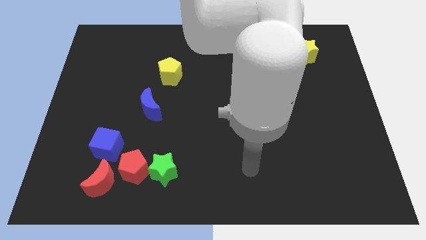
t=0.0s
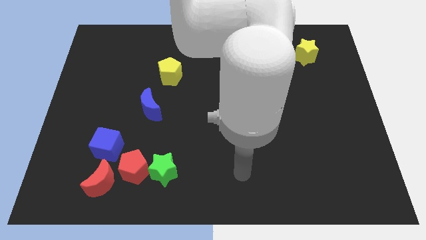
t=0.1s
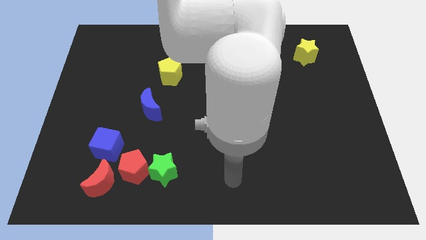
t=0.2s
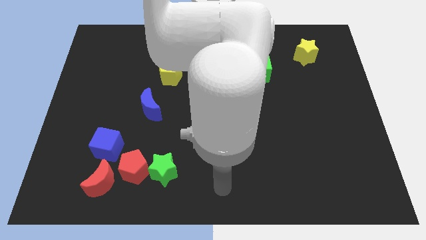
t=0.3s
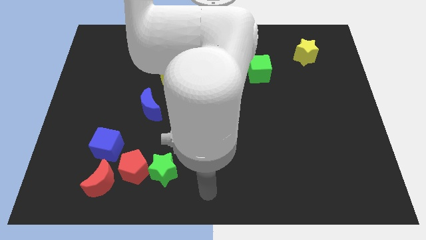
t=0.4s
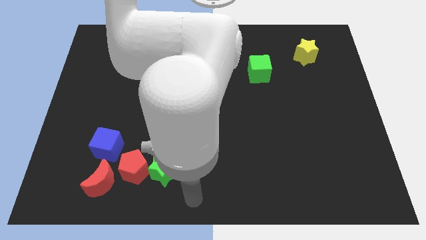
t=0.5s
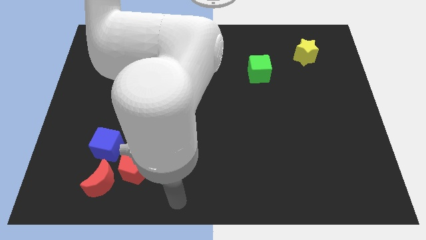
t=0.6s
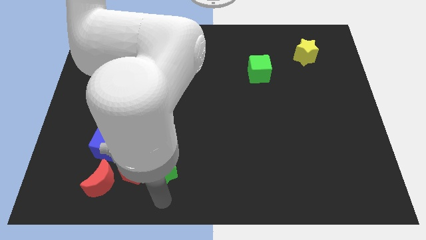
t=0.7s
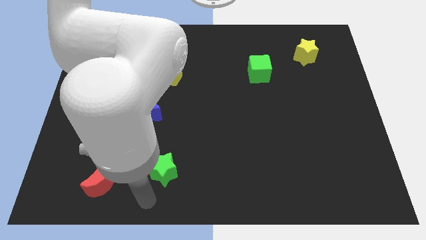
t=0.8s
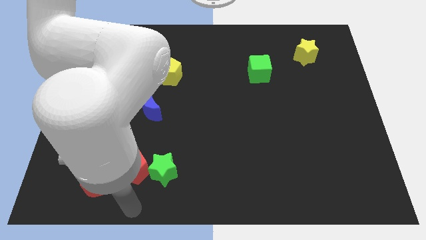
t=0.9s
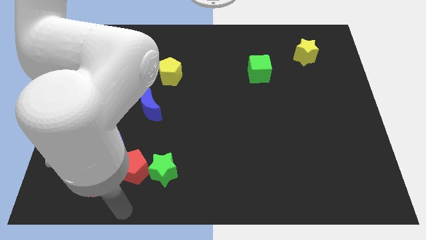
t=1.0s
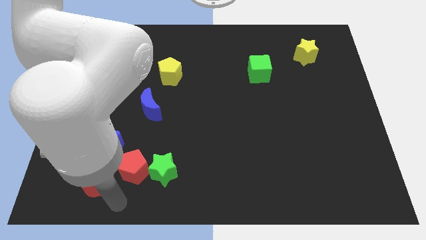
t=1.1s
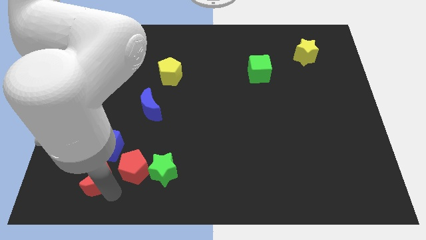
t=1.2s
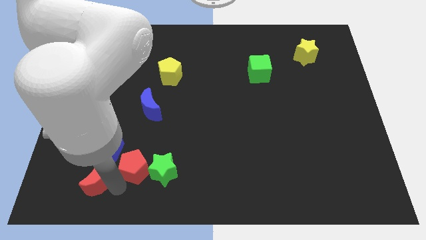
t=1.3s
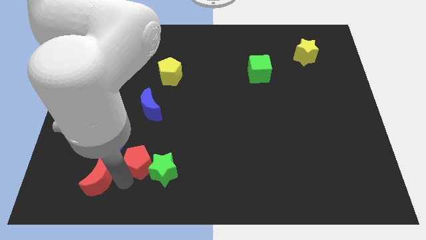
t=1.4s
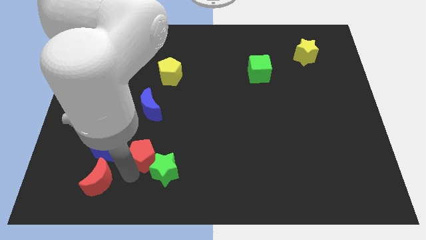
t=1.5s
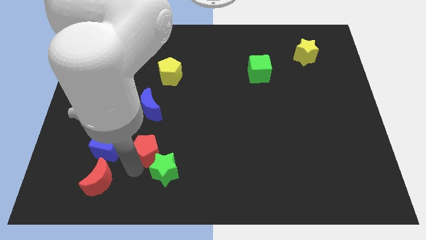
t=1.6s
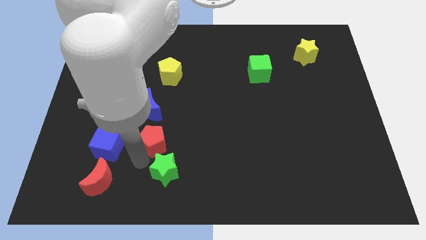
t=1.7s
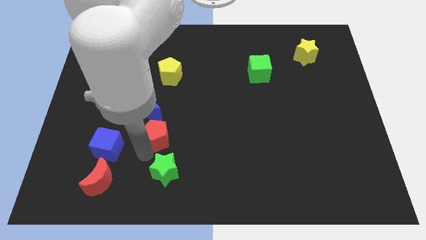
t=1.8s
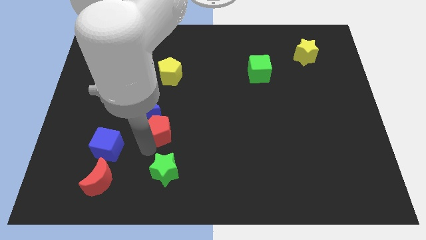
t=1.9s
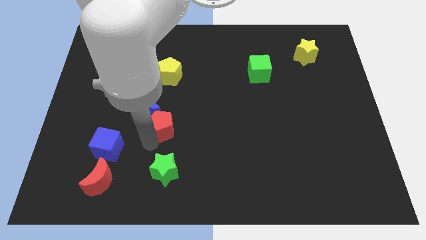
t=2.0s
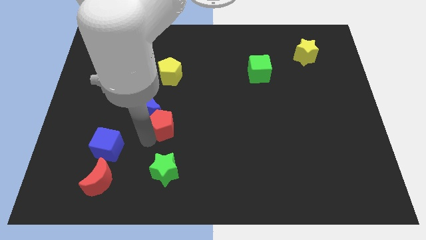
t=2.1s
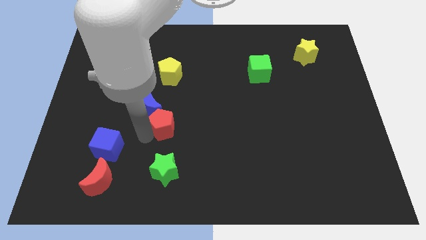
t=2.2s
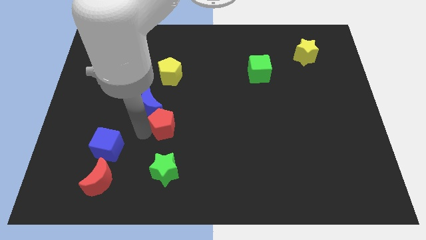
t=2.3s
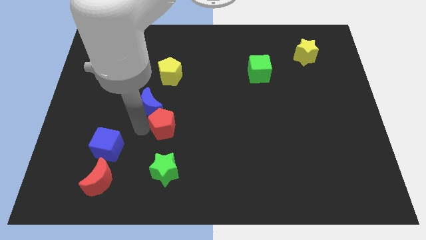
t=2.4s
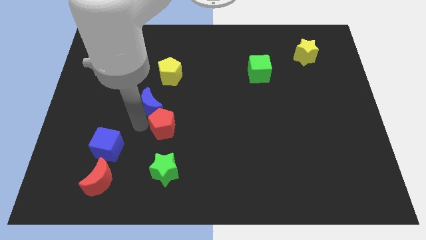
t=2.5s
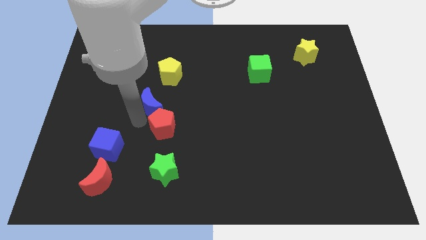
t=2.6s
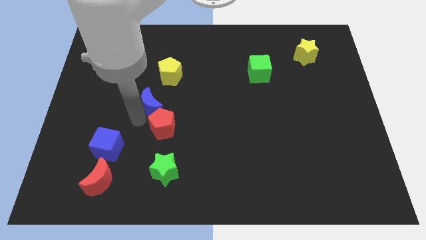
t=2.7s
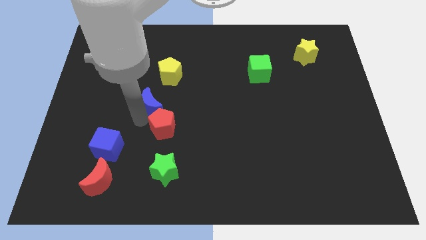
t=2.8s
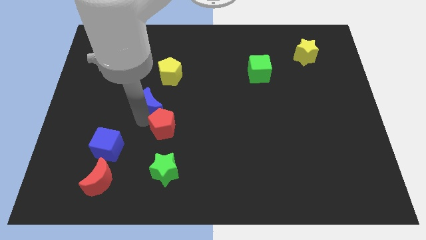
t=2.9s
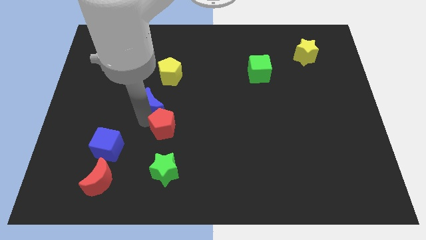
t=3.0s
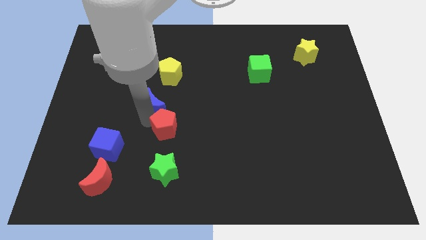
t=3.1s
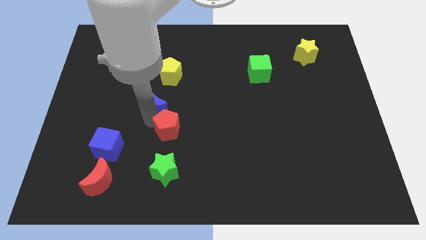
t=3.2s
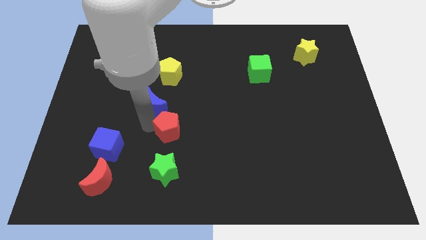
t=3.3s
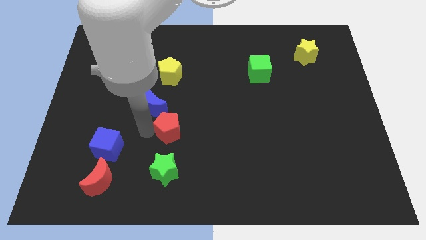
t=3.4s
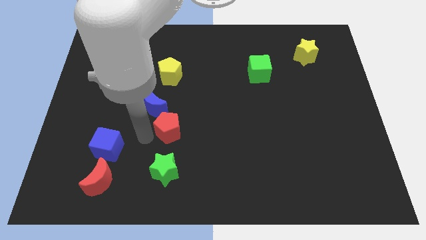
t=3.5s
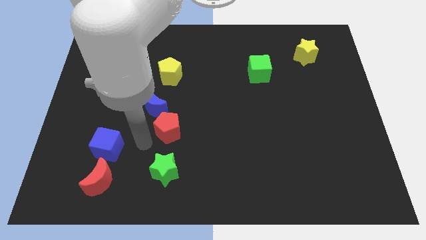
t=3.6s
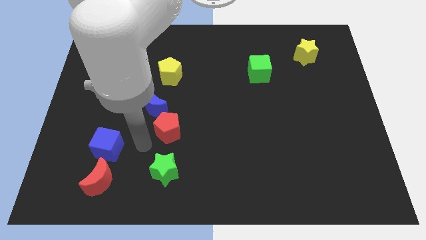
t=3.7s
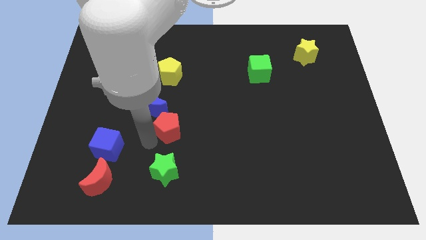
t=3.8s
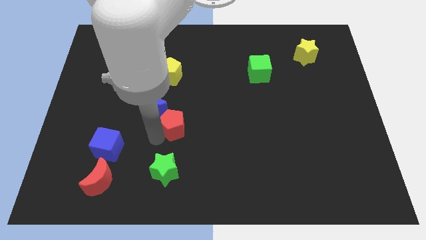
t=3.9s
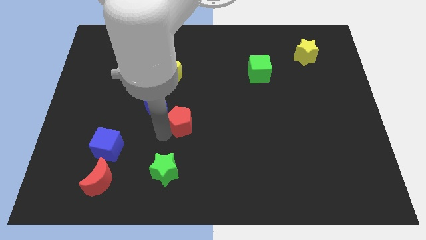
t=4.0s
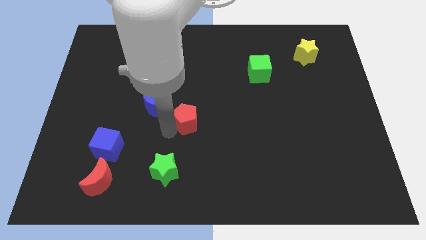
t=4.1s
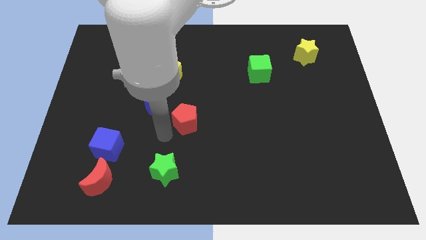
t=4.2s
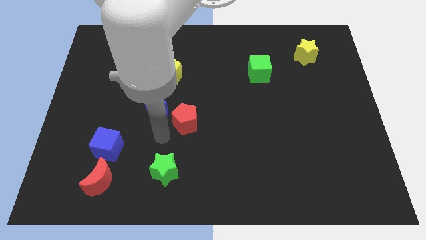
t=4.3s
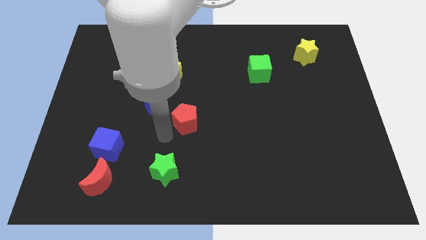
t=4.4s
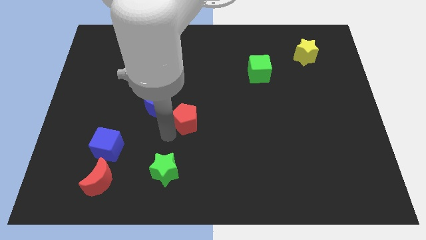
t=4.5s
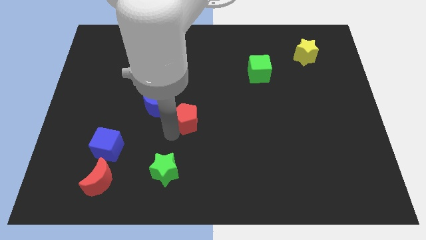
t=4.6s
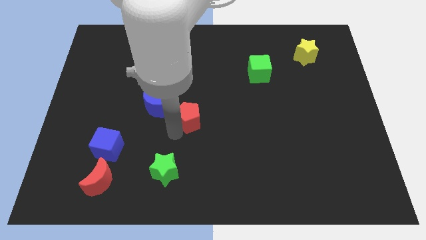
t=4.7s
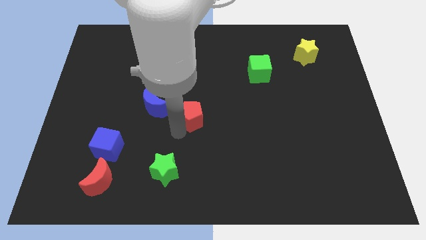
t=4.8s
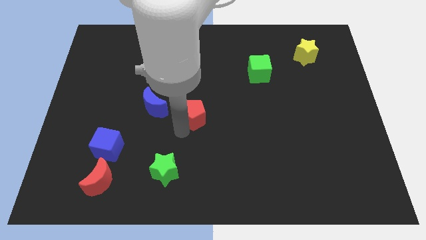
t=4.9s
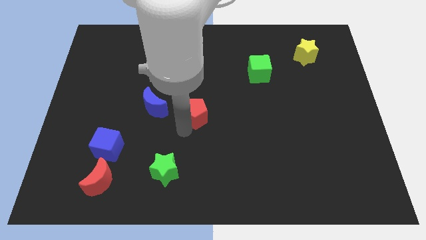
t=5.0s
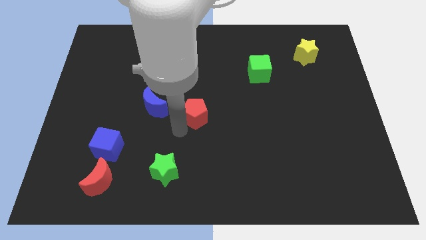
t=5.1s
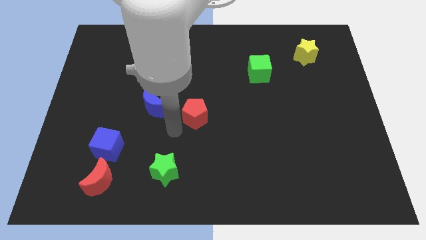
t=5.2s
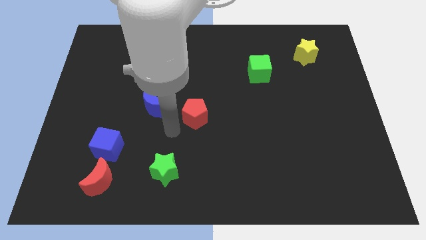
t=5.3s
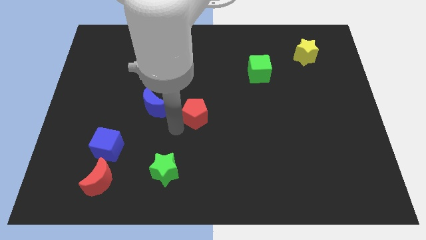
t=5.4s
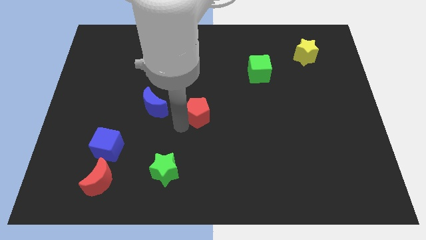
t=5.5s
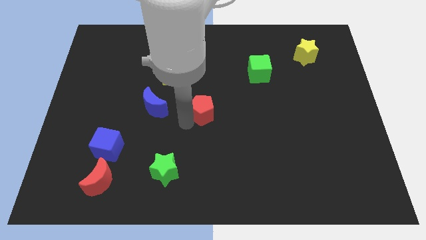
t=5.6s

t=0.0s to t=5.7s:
move the red pentagon upwards and to the right

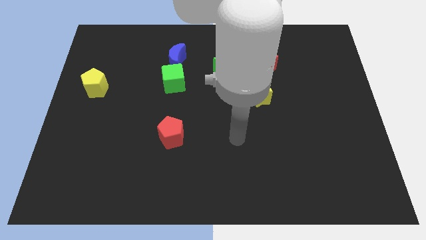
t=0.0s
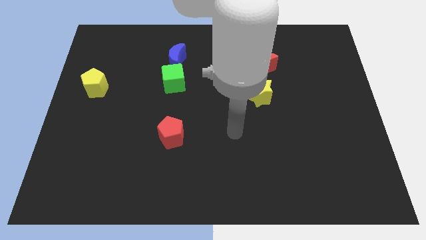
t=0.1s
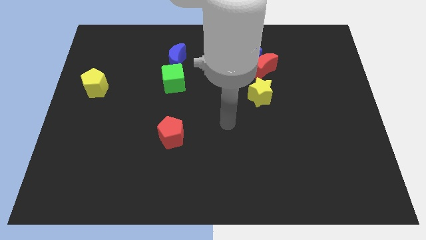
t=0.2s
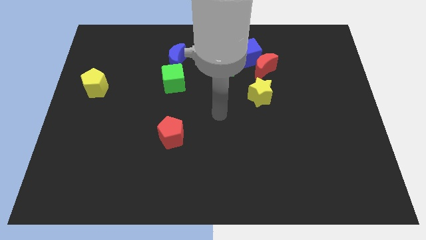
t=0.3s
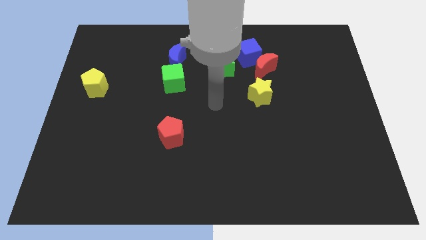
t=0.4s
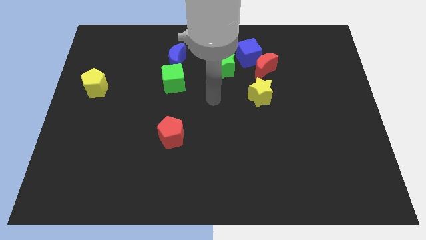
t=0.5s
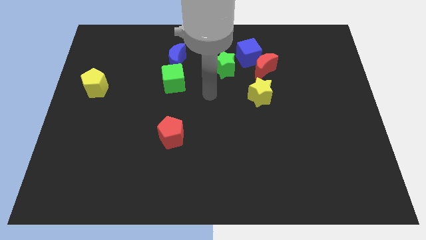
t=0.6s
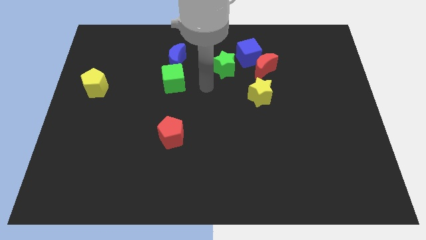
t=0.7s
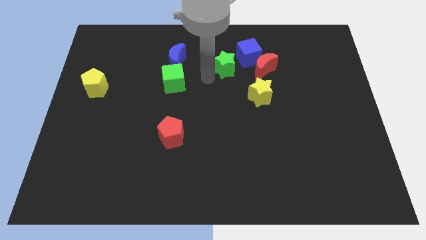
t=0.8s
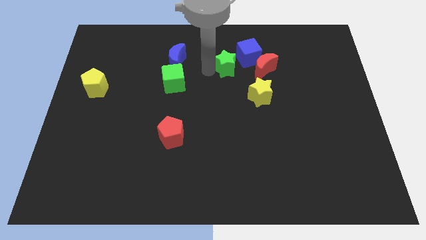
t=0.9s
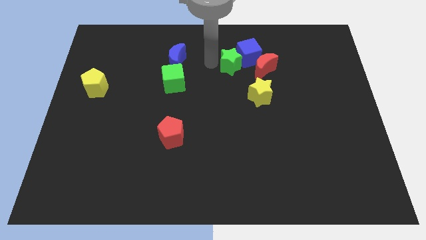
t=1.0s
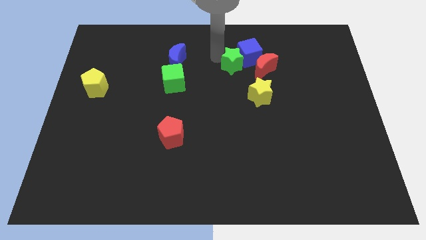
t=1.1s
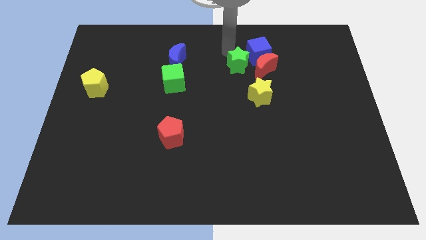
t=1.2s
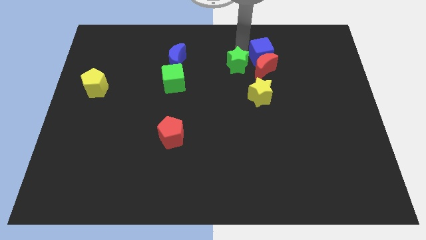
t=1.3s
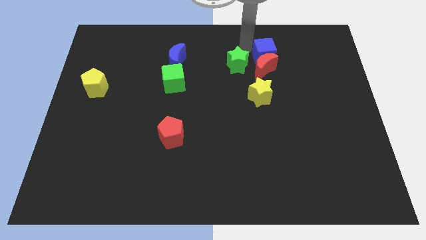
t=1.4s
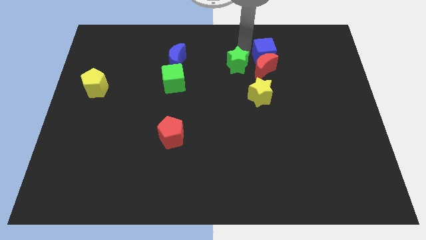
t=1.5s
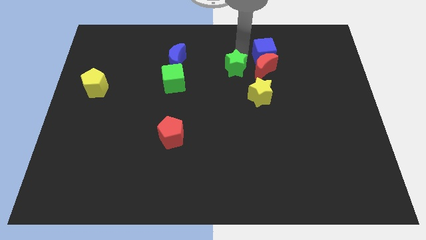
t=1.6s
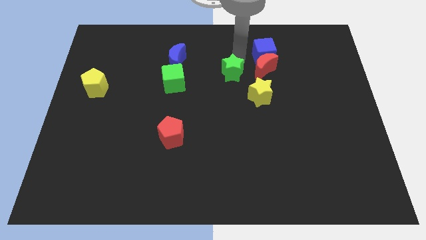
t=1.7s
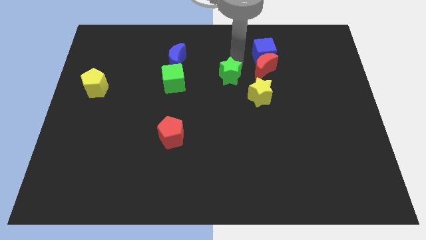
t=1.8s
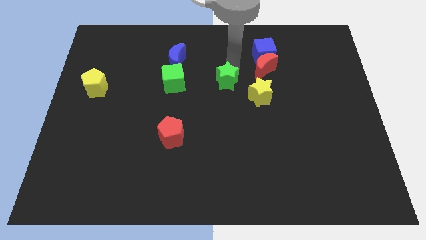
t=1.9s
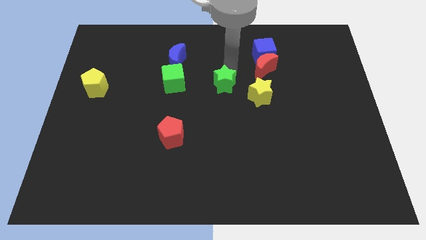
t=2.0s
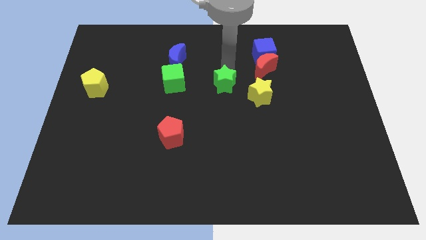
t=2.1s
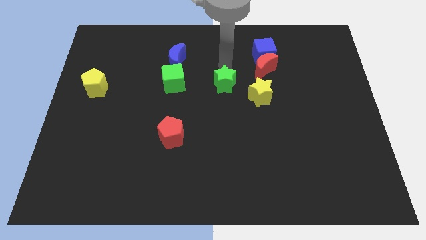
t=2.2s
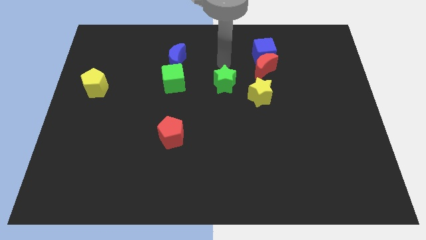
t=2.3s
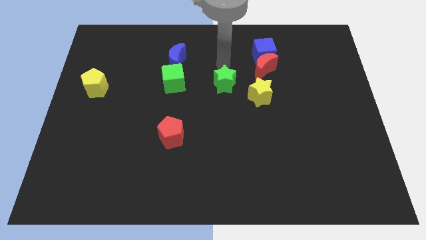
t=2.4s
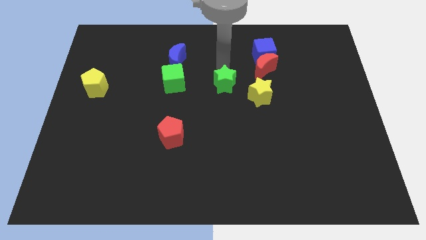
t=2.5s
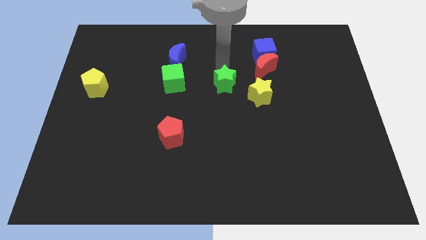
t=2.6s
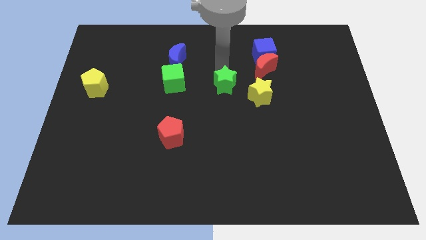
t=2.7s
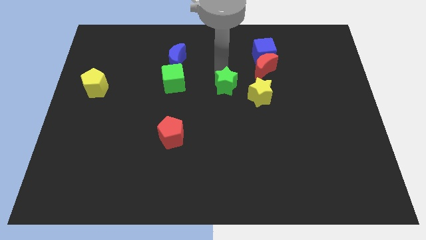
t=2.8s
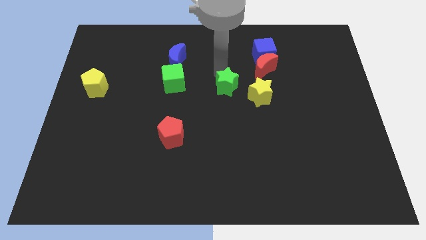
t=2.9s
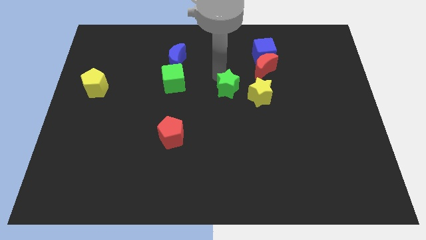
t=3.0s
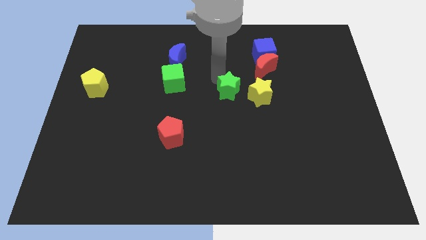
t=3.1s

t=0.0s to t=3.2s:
move the green star downwards slightly
